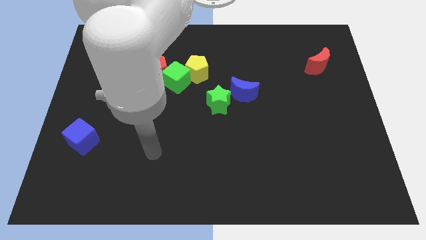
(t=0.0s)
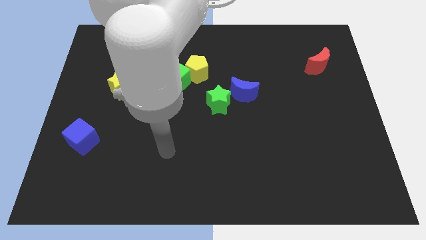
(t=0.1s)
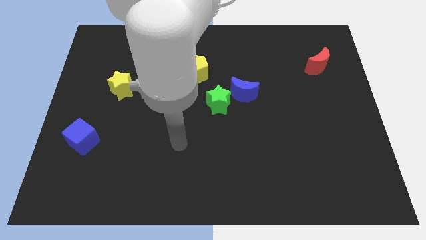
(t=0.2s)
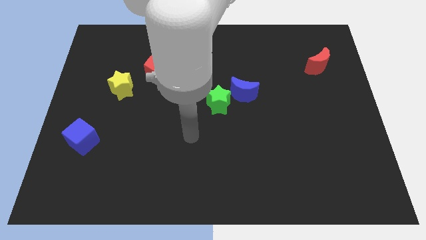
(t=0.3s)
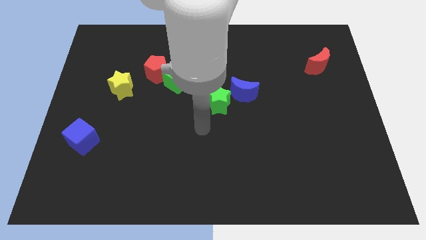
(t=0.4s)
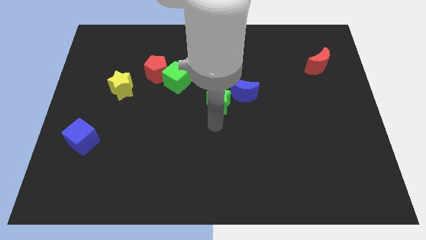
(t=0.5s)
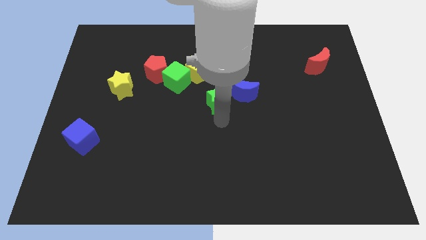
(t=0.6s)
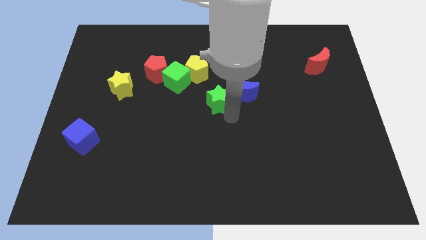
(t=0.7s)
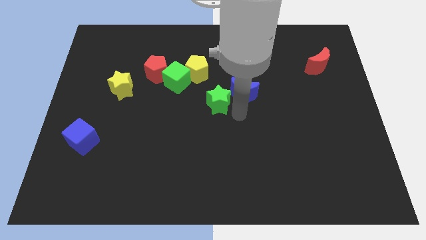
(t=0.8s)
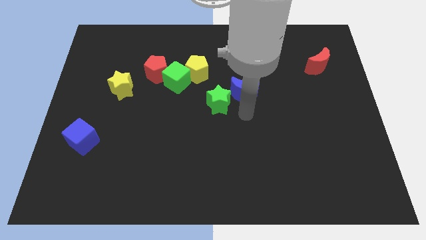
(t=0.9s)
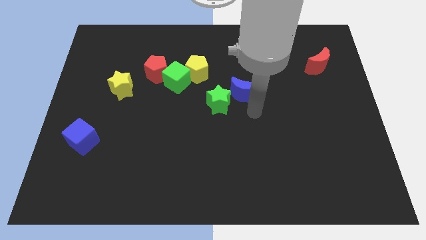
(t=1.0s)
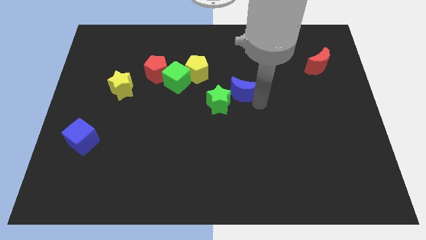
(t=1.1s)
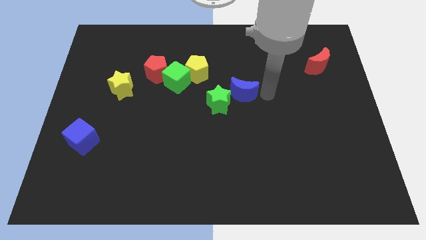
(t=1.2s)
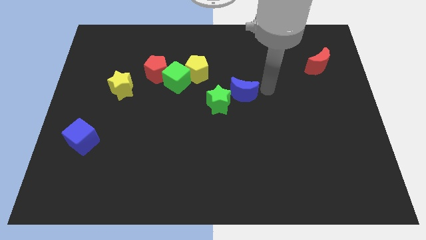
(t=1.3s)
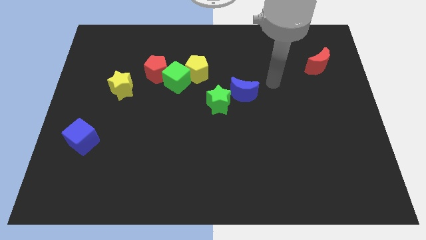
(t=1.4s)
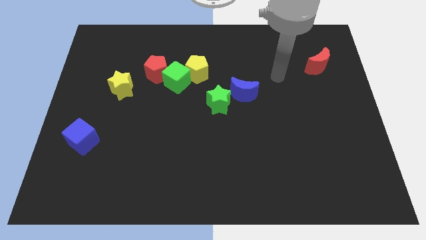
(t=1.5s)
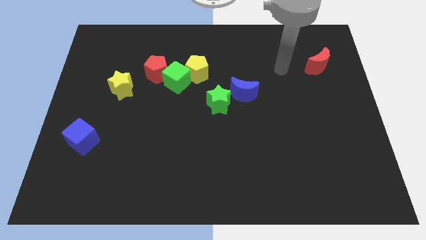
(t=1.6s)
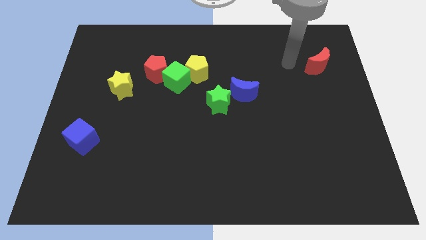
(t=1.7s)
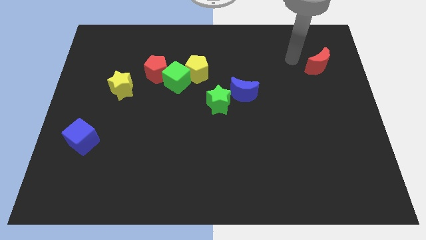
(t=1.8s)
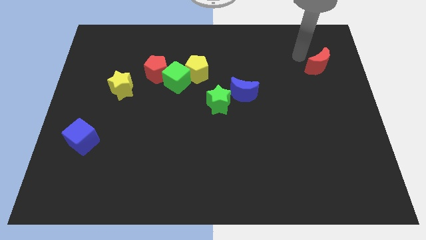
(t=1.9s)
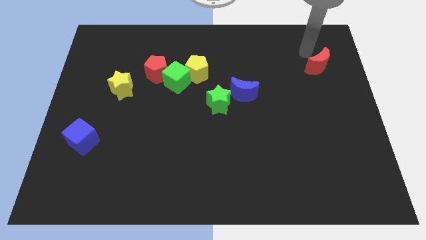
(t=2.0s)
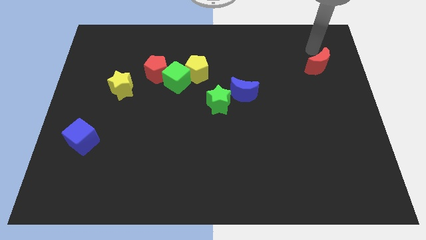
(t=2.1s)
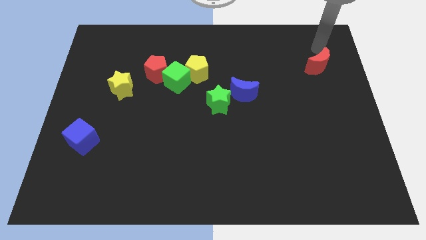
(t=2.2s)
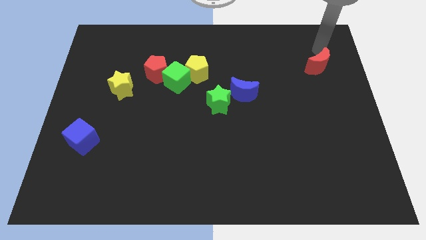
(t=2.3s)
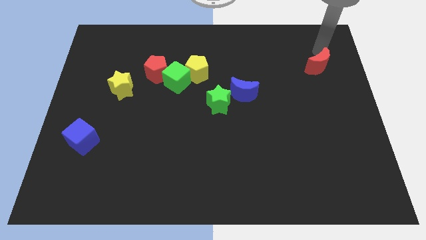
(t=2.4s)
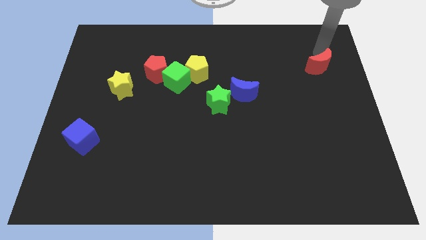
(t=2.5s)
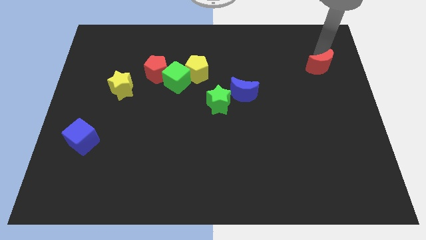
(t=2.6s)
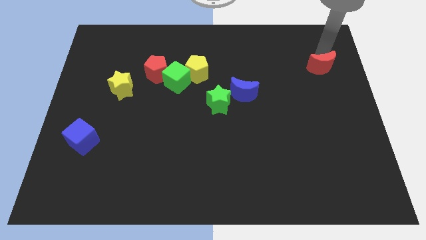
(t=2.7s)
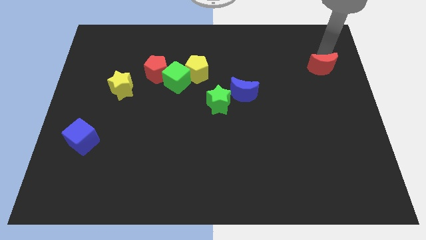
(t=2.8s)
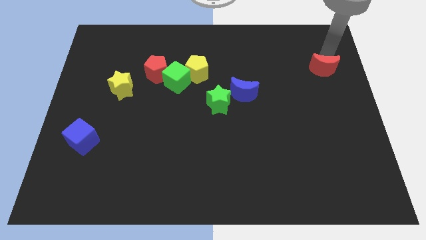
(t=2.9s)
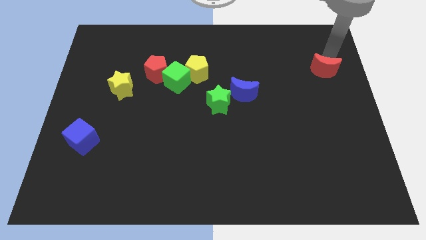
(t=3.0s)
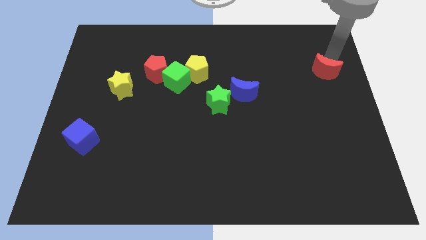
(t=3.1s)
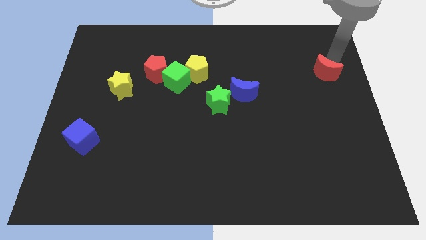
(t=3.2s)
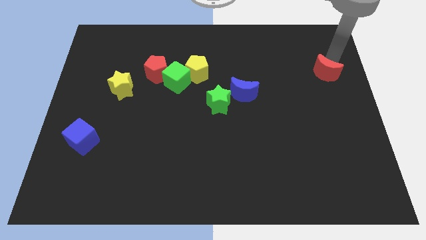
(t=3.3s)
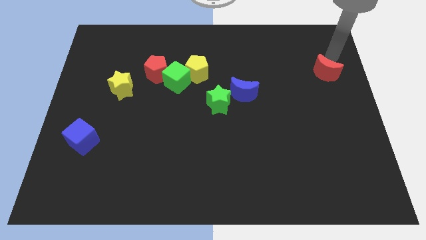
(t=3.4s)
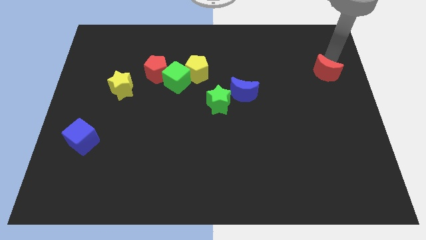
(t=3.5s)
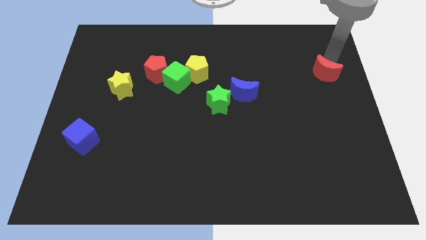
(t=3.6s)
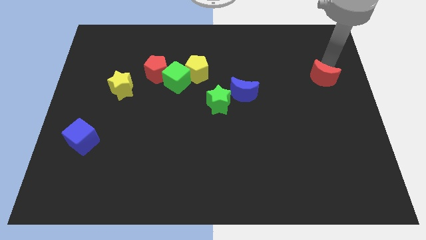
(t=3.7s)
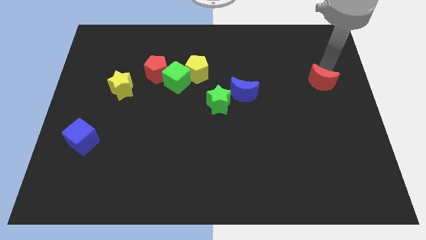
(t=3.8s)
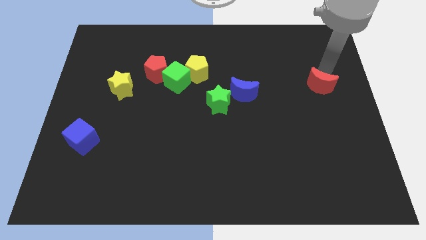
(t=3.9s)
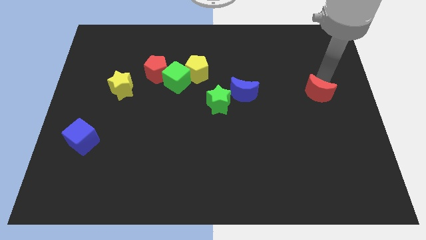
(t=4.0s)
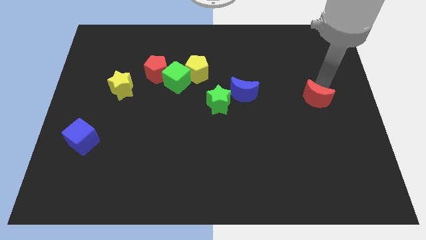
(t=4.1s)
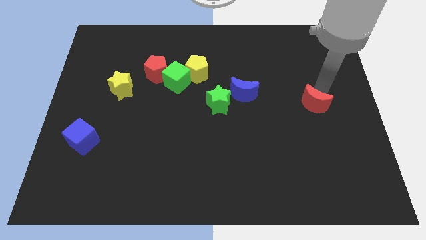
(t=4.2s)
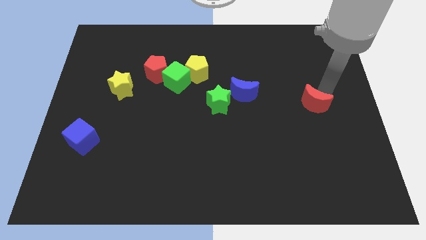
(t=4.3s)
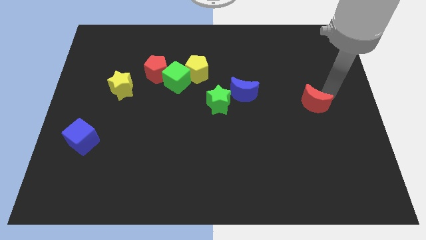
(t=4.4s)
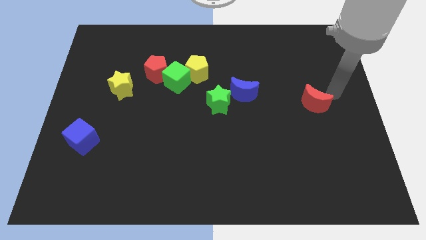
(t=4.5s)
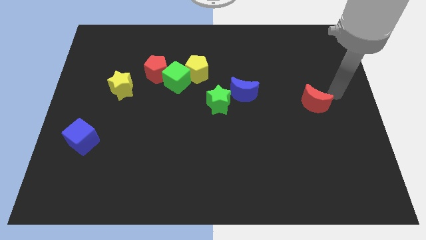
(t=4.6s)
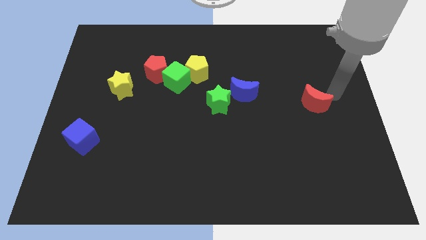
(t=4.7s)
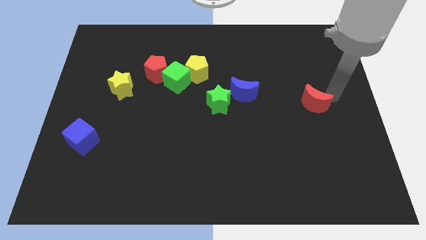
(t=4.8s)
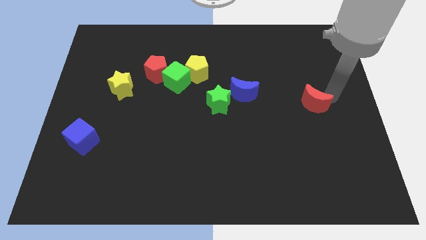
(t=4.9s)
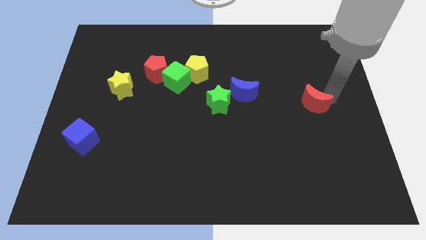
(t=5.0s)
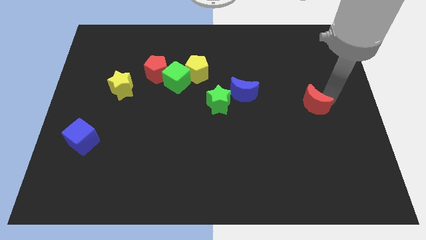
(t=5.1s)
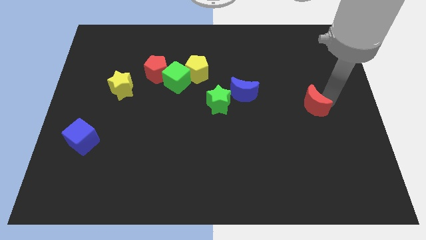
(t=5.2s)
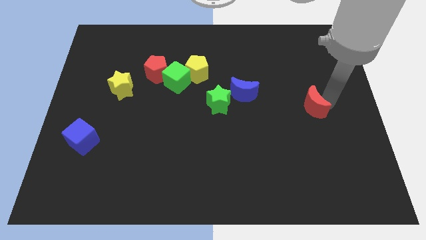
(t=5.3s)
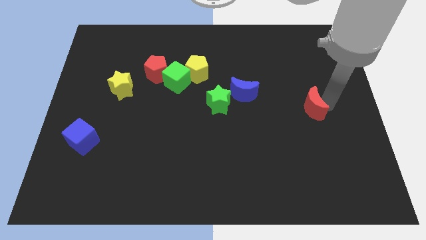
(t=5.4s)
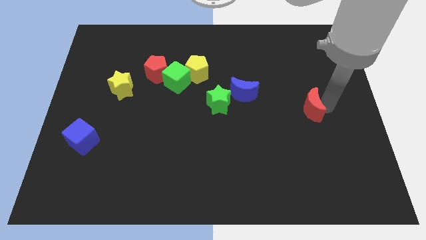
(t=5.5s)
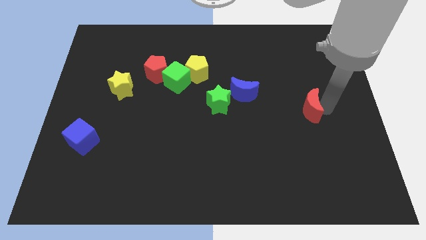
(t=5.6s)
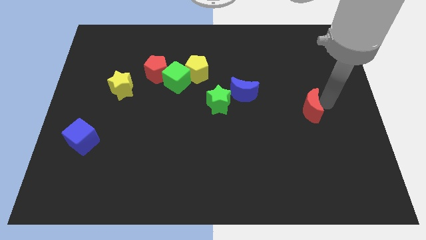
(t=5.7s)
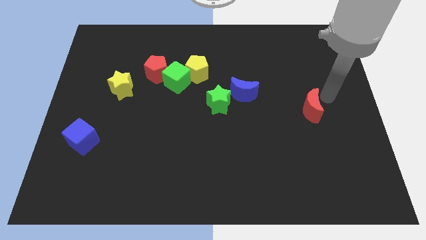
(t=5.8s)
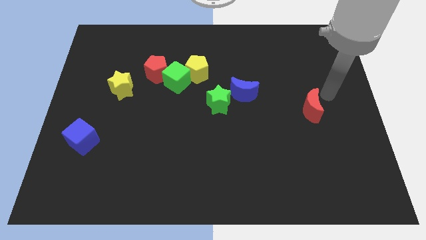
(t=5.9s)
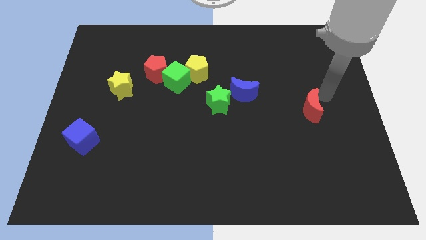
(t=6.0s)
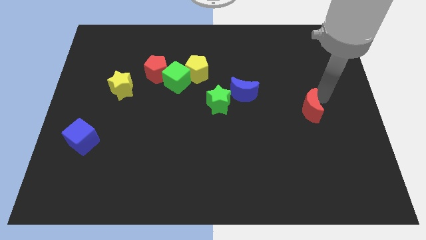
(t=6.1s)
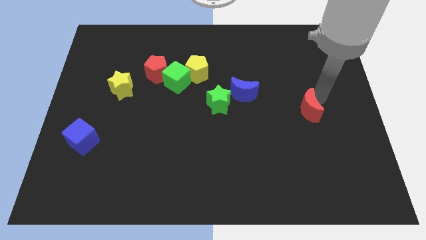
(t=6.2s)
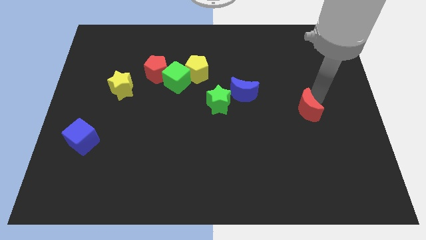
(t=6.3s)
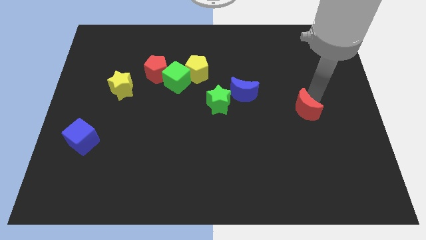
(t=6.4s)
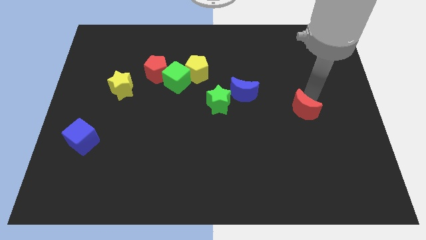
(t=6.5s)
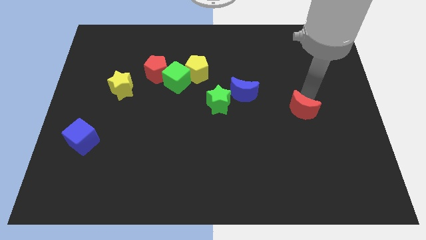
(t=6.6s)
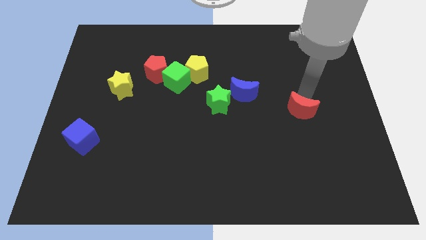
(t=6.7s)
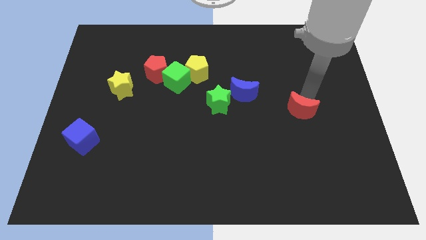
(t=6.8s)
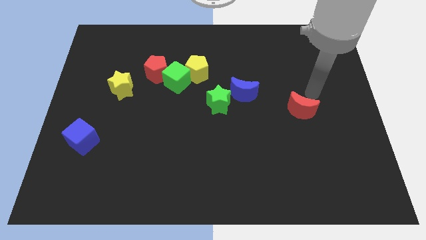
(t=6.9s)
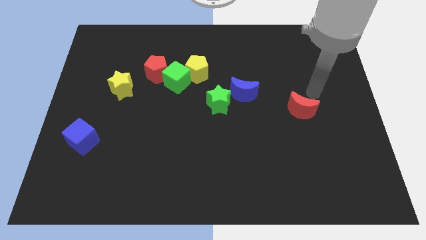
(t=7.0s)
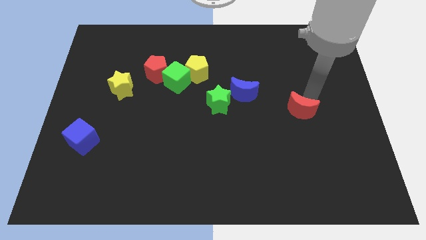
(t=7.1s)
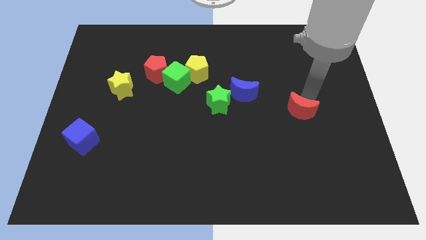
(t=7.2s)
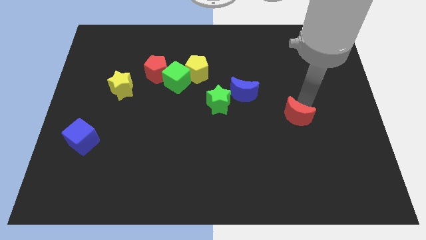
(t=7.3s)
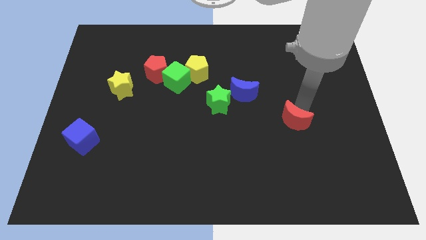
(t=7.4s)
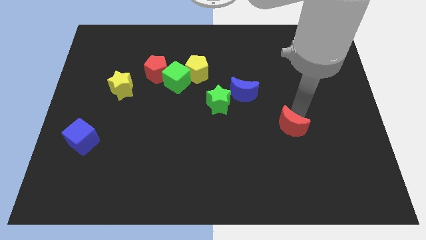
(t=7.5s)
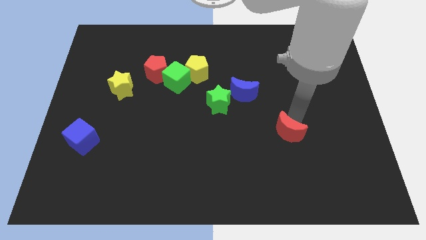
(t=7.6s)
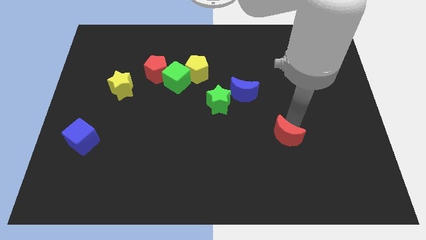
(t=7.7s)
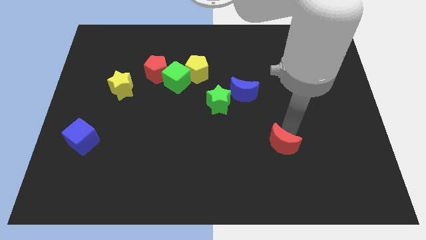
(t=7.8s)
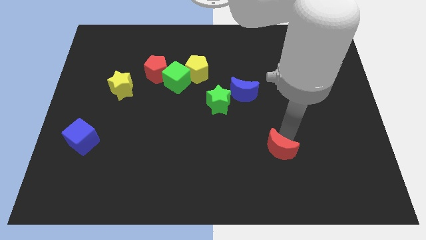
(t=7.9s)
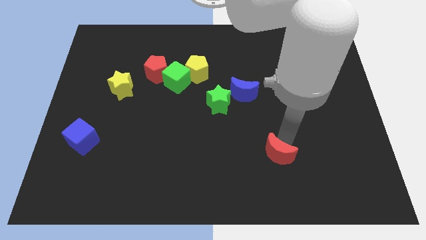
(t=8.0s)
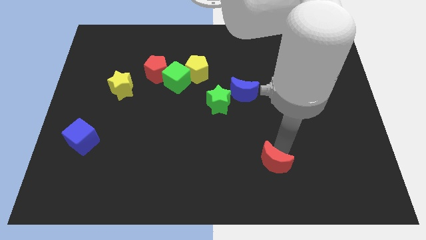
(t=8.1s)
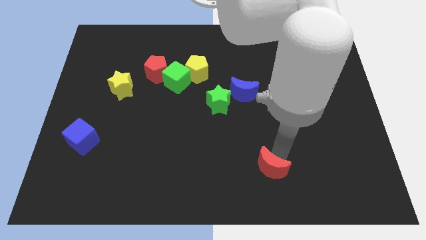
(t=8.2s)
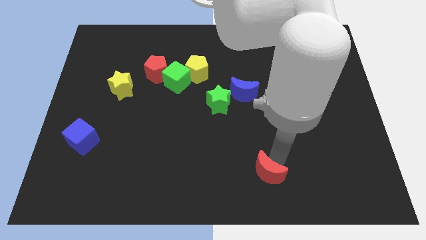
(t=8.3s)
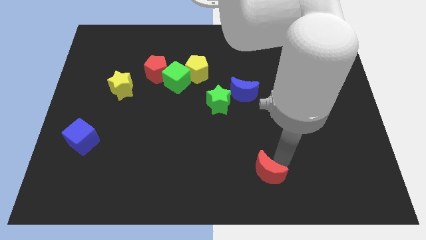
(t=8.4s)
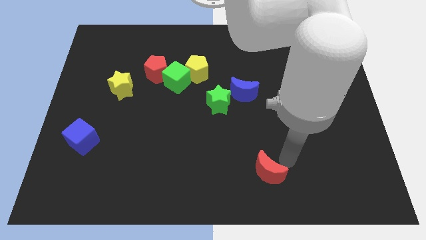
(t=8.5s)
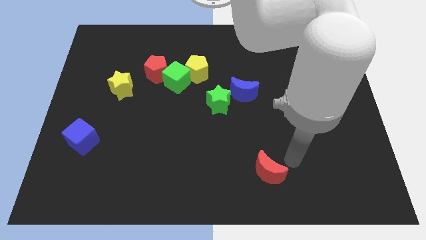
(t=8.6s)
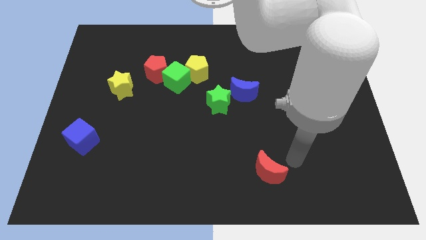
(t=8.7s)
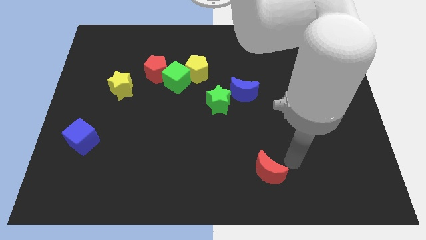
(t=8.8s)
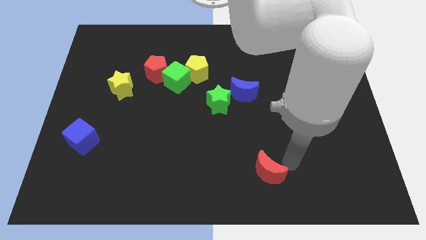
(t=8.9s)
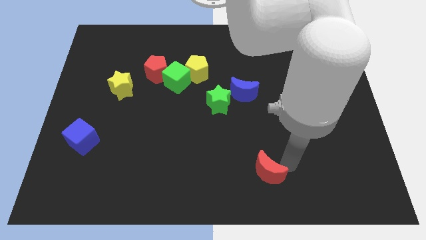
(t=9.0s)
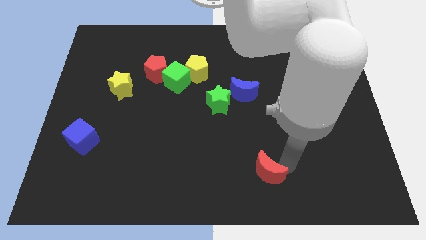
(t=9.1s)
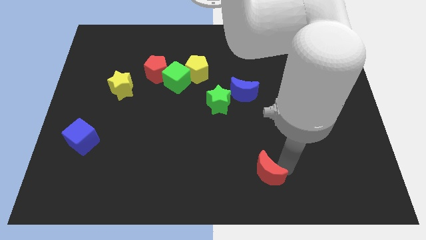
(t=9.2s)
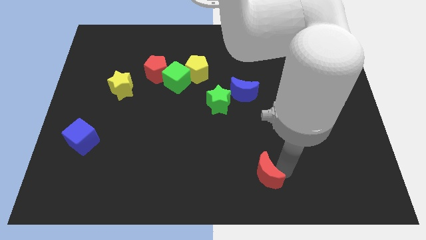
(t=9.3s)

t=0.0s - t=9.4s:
slide the red moon to the bottom side
